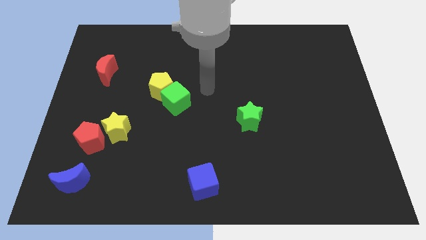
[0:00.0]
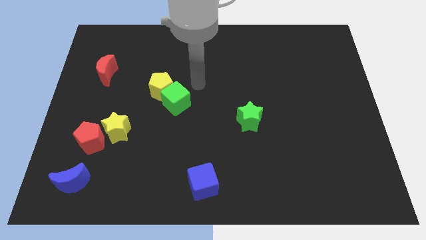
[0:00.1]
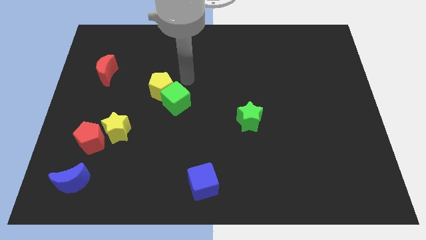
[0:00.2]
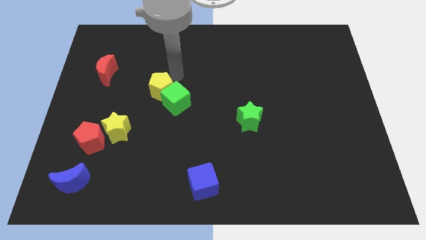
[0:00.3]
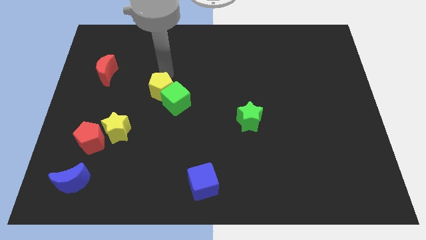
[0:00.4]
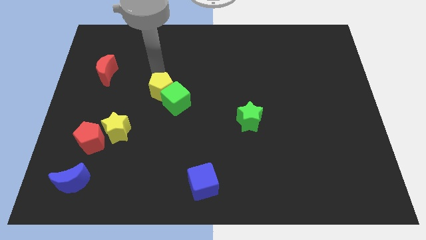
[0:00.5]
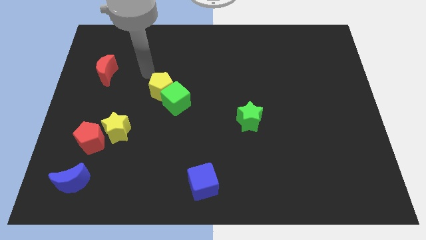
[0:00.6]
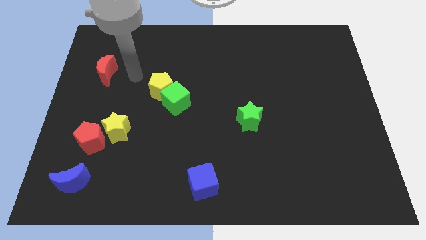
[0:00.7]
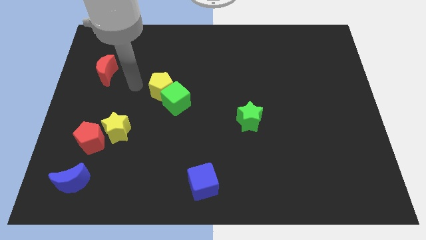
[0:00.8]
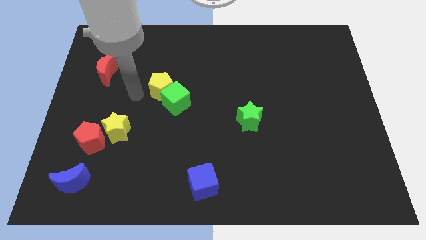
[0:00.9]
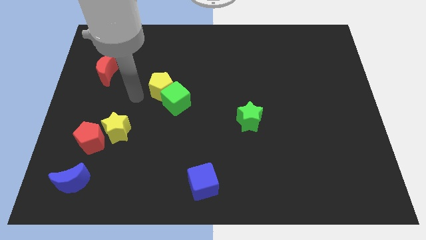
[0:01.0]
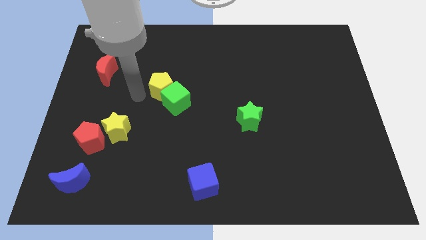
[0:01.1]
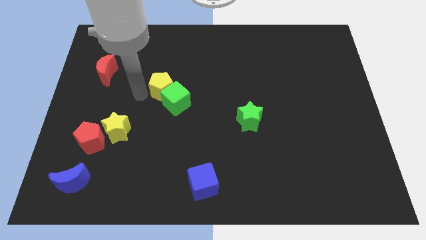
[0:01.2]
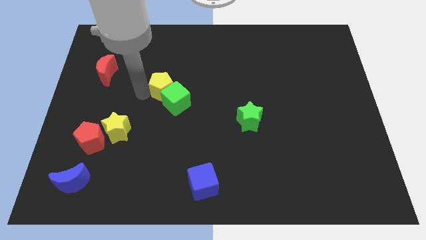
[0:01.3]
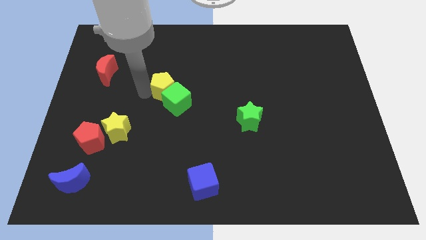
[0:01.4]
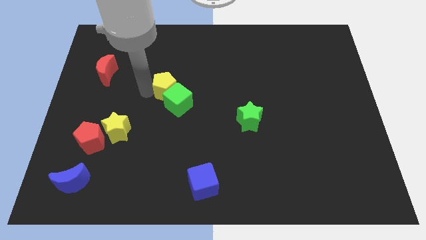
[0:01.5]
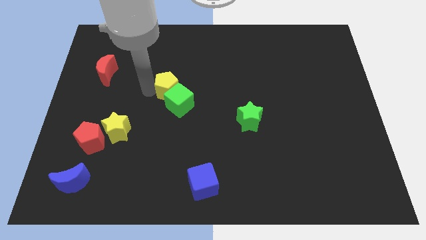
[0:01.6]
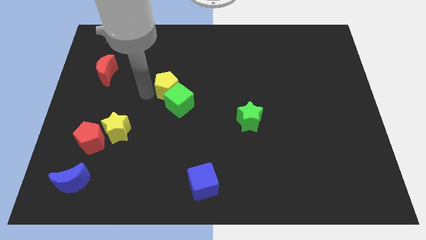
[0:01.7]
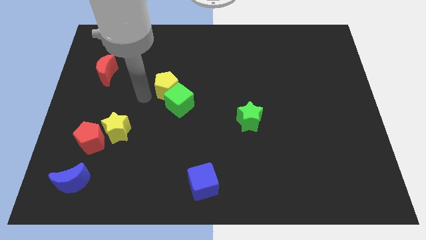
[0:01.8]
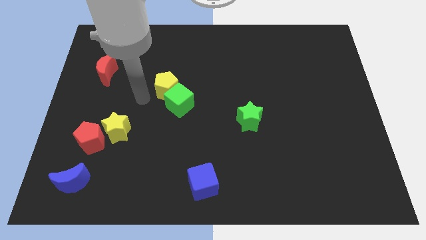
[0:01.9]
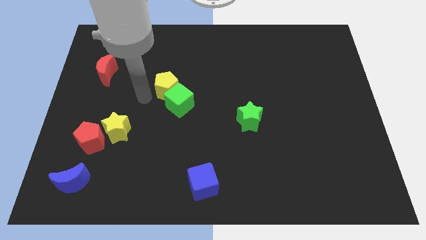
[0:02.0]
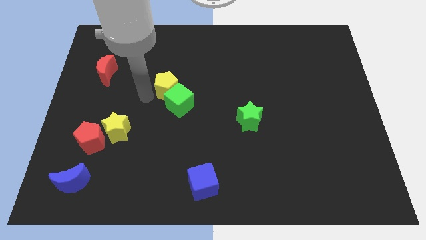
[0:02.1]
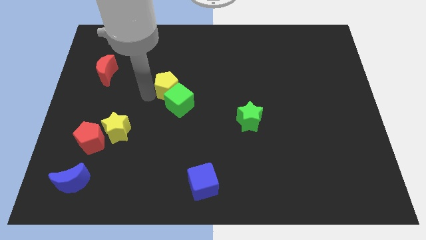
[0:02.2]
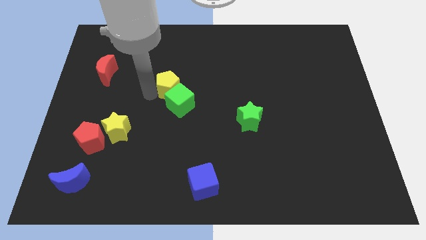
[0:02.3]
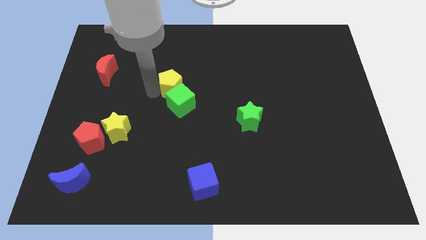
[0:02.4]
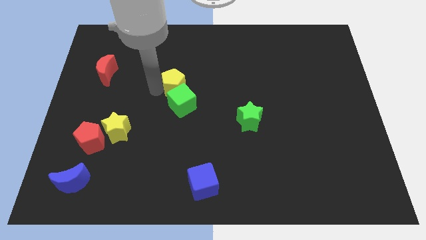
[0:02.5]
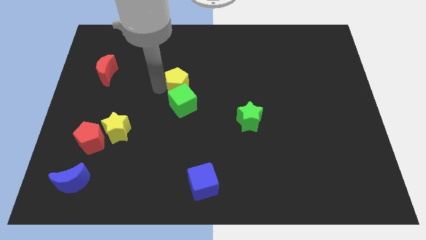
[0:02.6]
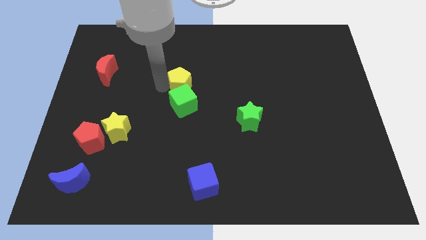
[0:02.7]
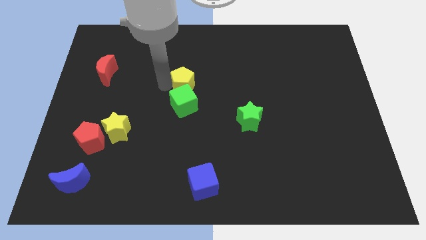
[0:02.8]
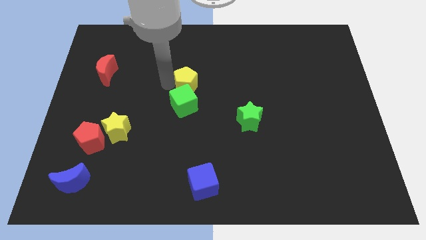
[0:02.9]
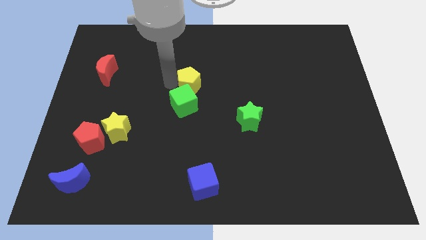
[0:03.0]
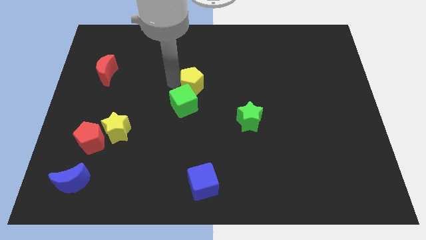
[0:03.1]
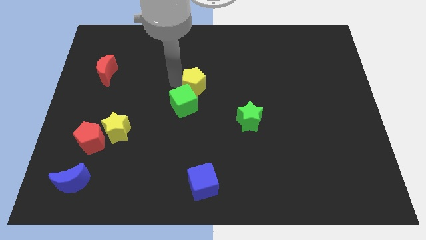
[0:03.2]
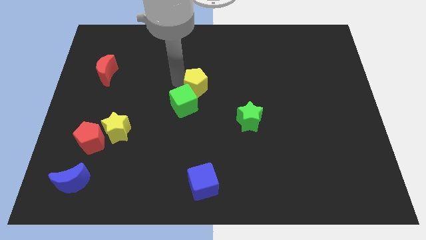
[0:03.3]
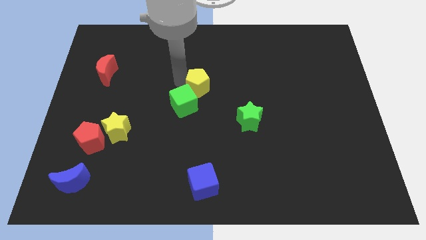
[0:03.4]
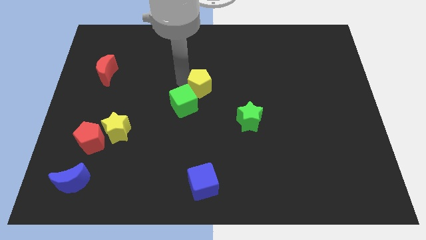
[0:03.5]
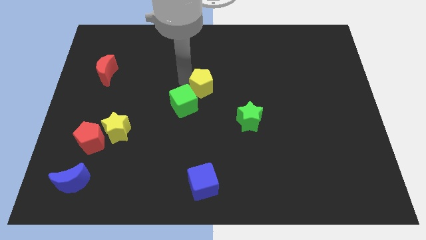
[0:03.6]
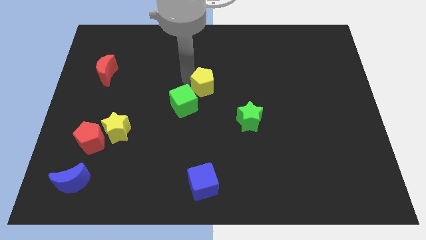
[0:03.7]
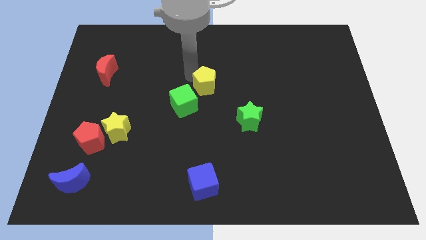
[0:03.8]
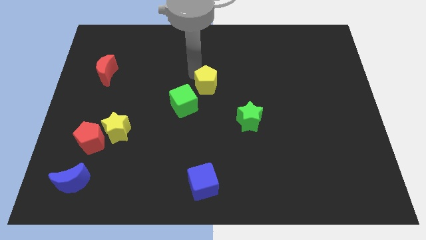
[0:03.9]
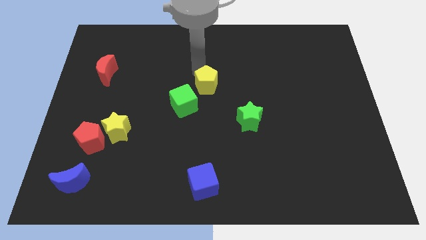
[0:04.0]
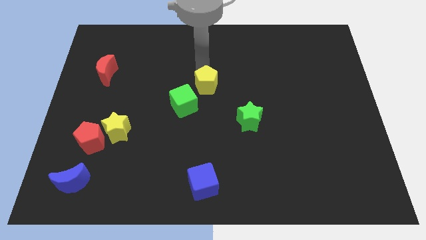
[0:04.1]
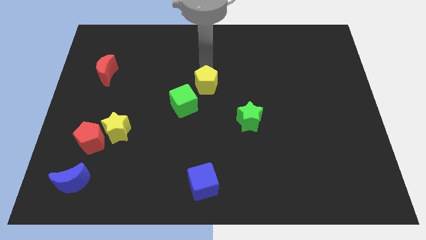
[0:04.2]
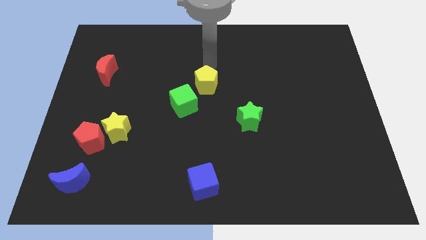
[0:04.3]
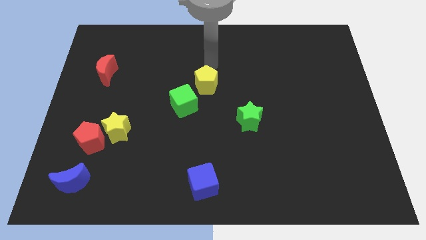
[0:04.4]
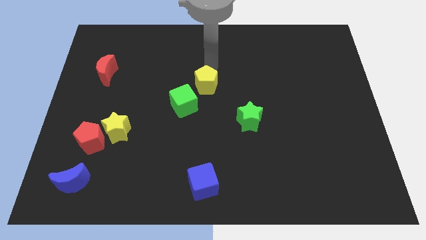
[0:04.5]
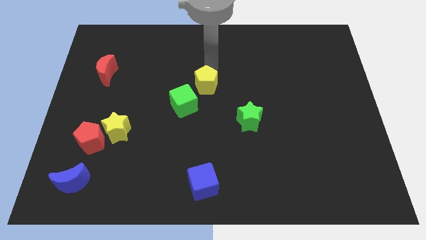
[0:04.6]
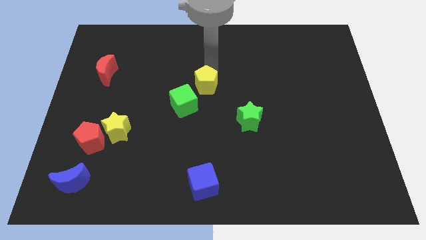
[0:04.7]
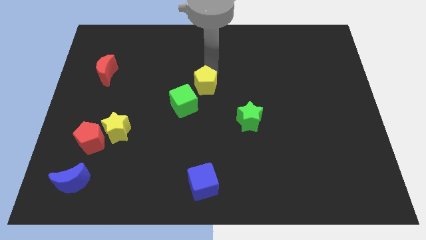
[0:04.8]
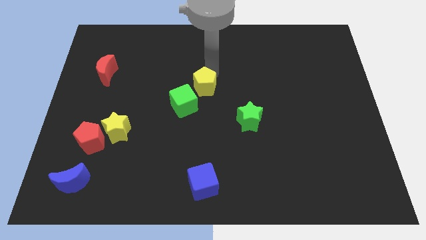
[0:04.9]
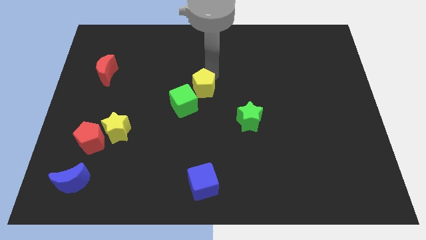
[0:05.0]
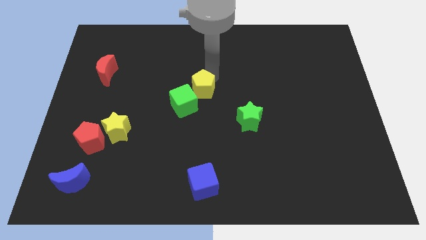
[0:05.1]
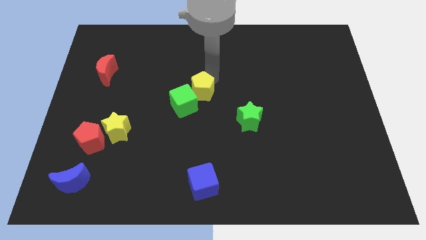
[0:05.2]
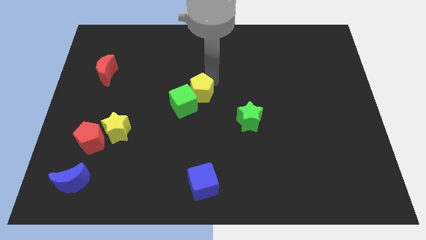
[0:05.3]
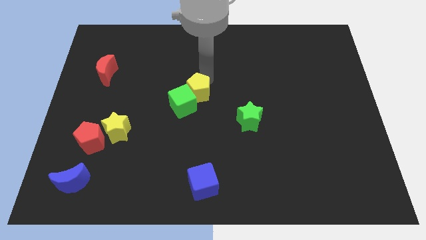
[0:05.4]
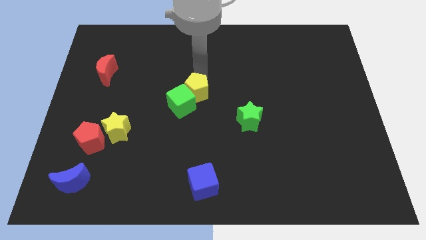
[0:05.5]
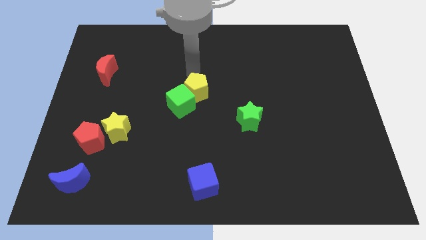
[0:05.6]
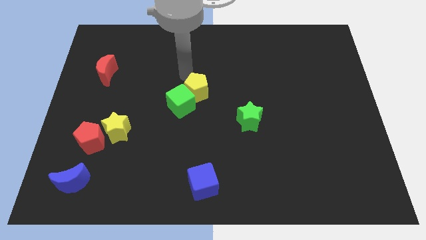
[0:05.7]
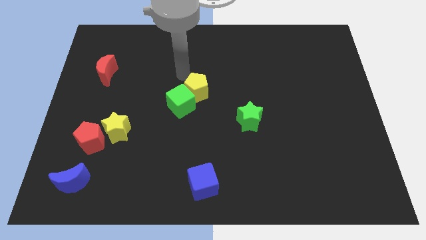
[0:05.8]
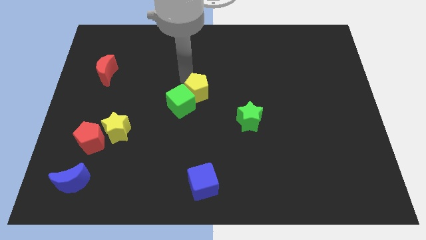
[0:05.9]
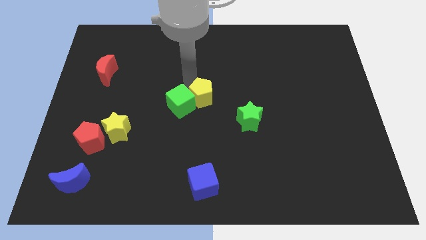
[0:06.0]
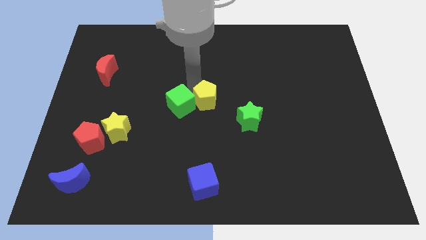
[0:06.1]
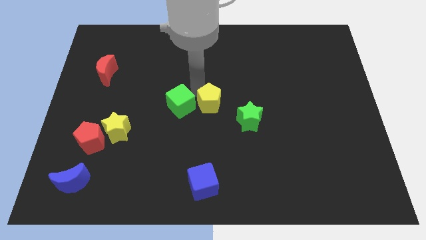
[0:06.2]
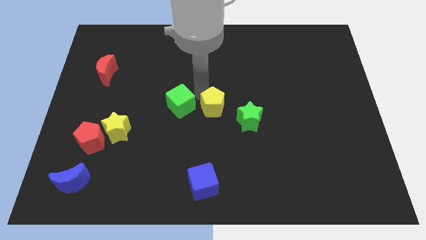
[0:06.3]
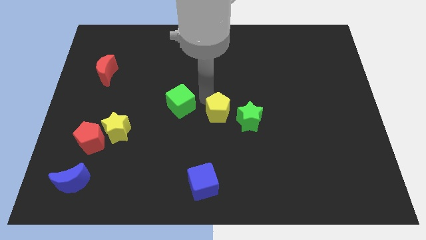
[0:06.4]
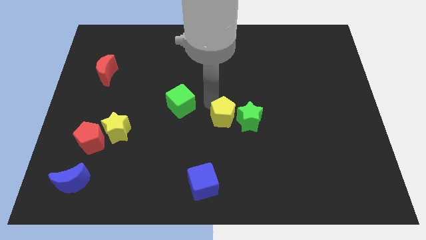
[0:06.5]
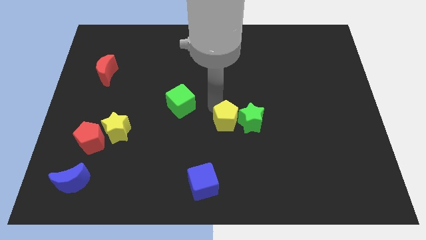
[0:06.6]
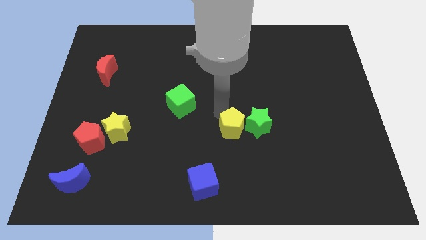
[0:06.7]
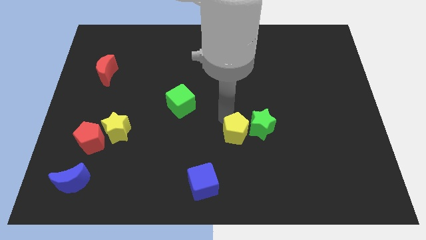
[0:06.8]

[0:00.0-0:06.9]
slide the yellow pentagon down and right

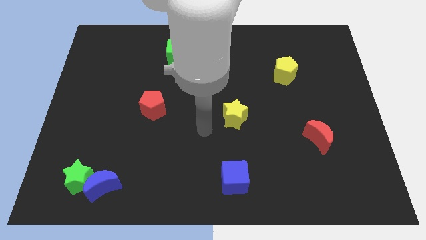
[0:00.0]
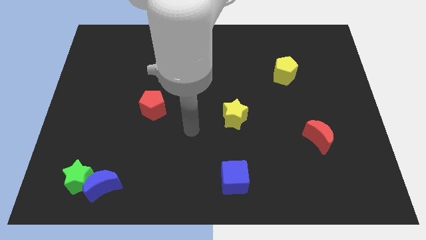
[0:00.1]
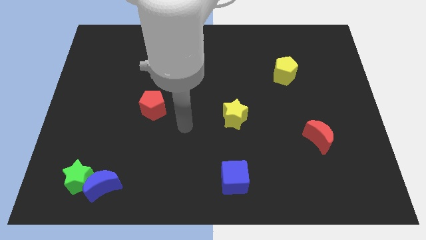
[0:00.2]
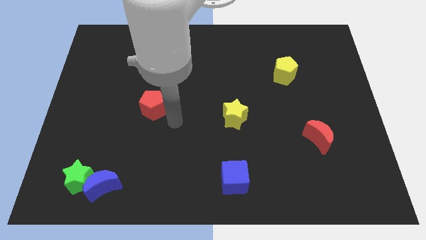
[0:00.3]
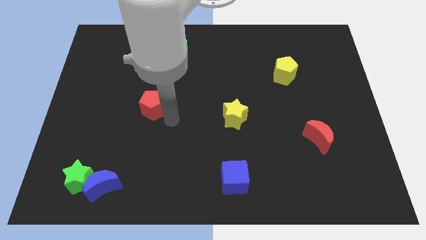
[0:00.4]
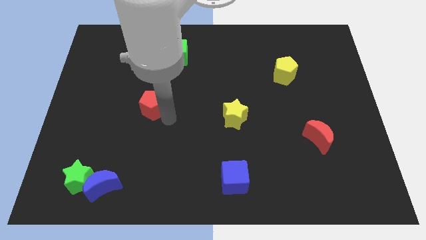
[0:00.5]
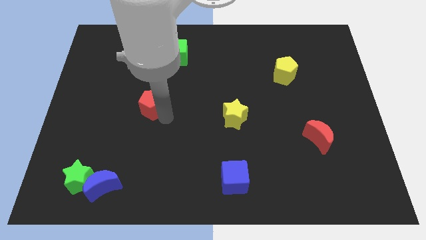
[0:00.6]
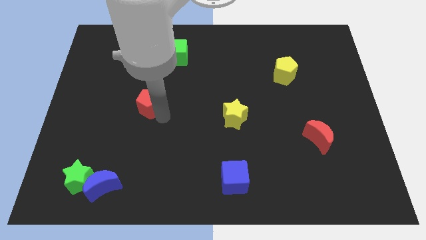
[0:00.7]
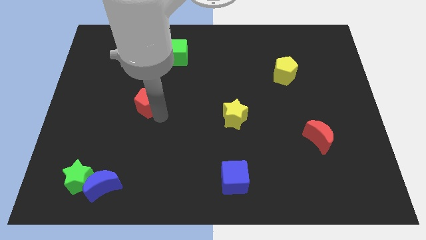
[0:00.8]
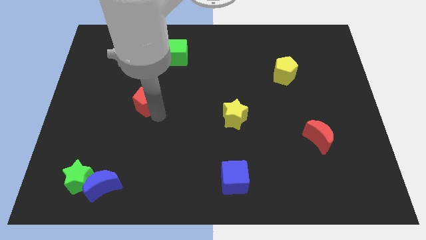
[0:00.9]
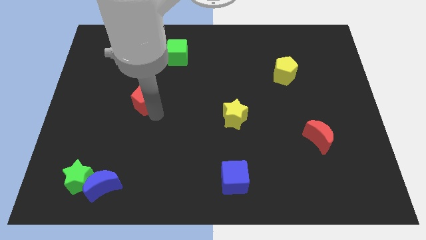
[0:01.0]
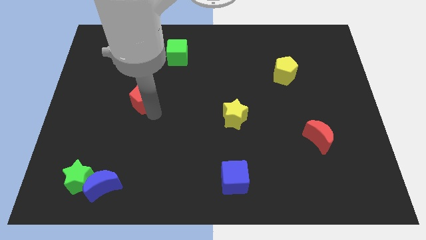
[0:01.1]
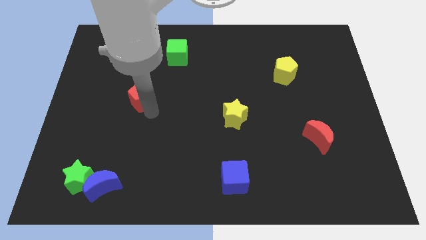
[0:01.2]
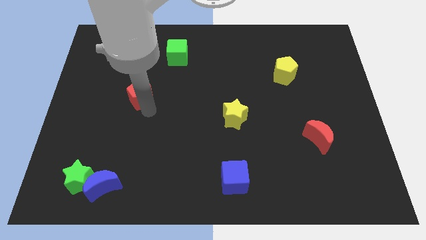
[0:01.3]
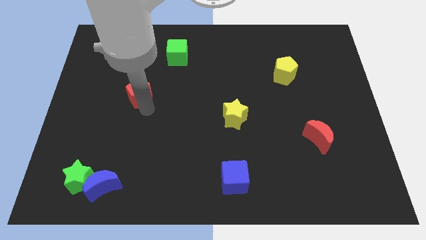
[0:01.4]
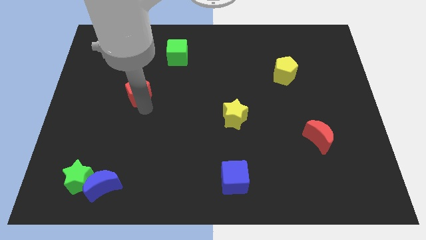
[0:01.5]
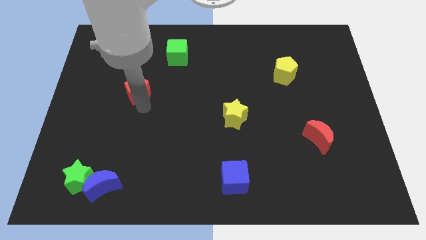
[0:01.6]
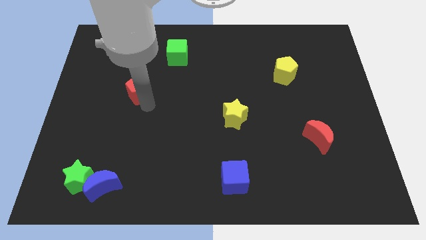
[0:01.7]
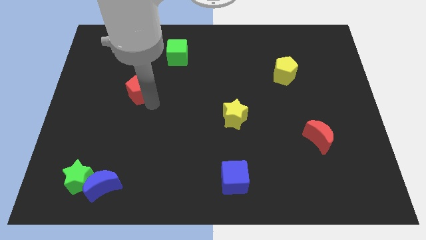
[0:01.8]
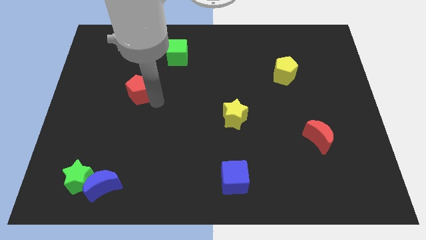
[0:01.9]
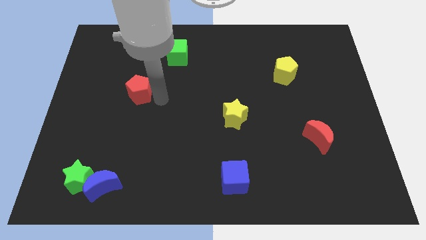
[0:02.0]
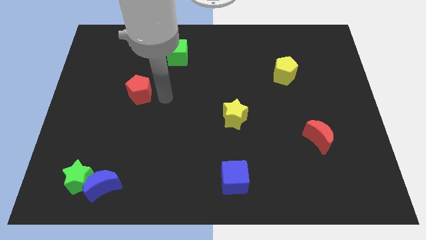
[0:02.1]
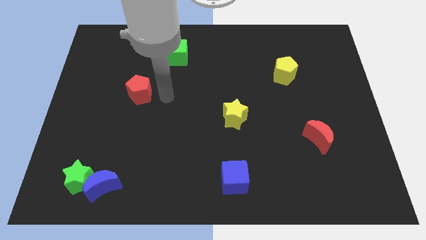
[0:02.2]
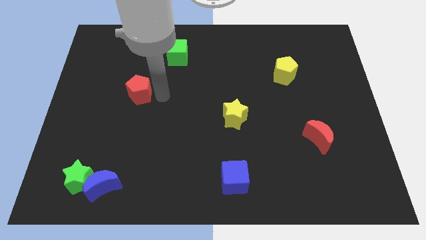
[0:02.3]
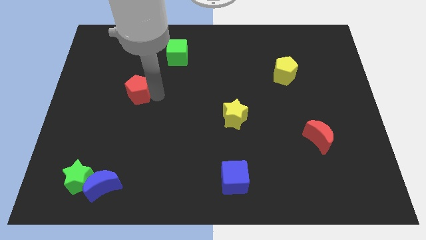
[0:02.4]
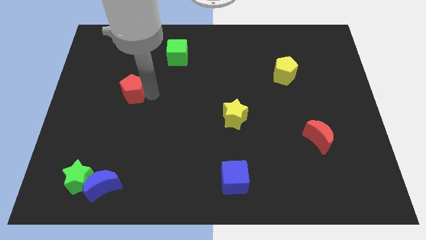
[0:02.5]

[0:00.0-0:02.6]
slightly push the red pentagon upwards and then left
